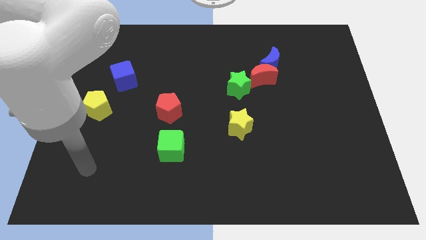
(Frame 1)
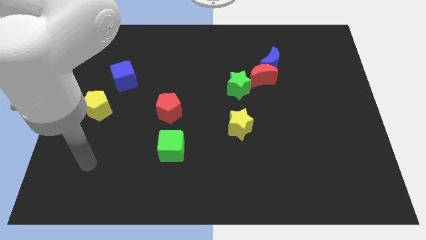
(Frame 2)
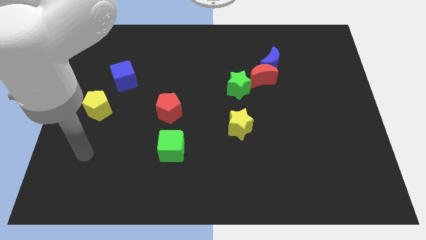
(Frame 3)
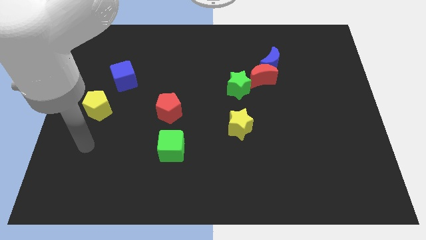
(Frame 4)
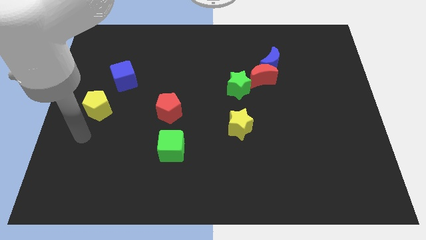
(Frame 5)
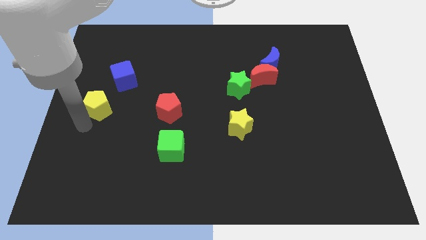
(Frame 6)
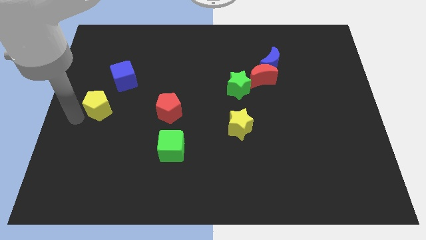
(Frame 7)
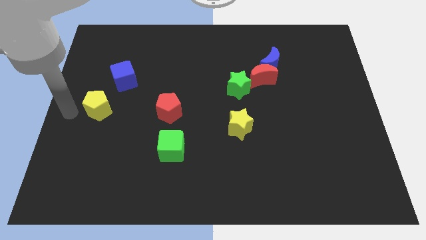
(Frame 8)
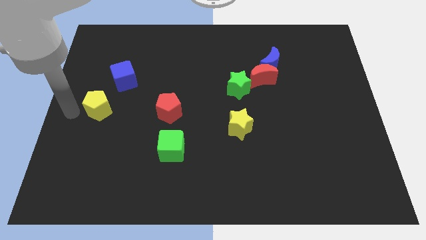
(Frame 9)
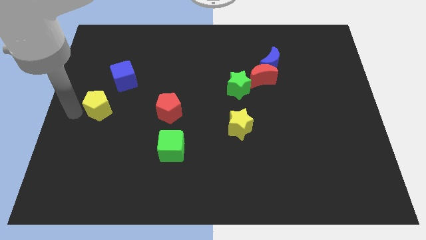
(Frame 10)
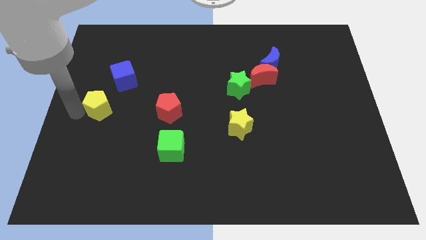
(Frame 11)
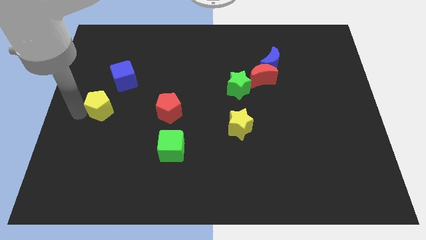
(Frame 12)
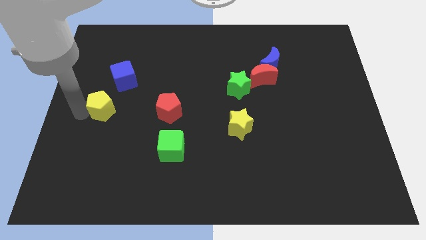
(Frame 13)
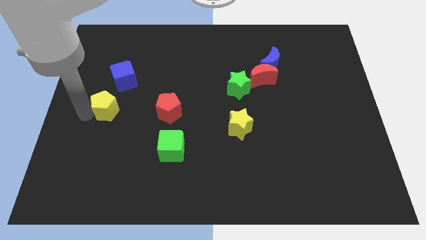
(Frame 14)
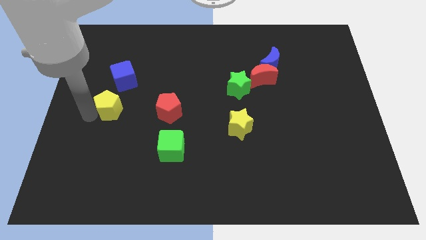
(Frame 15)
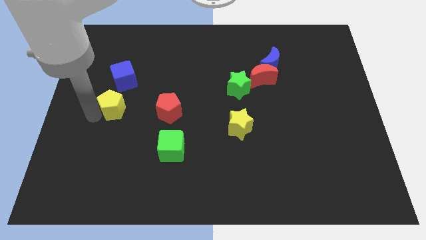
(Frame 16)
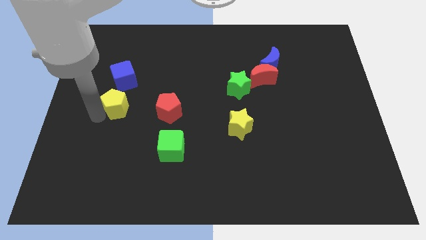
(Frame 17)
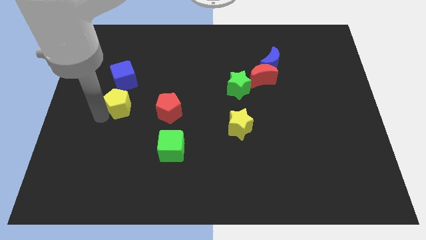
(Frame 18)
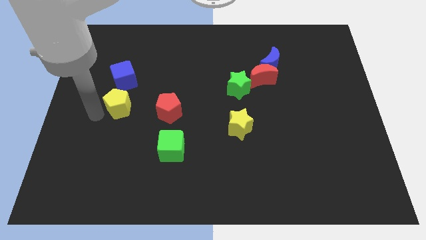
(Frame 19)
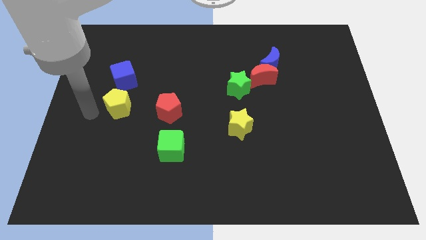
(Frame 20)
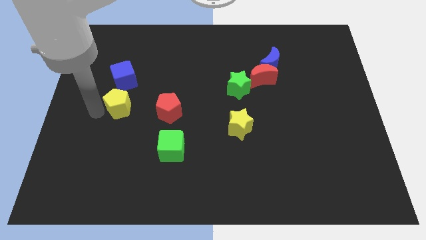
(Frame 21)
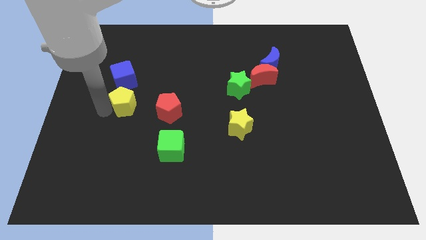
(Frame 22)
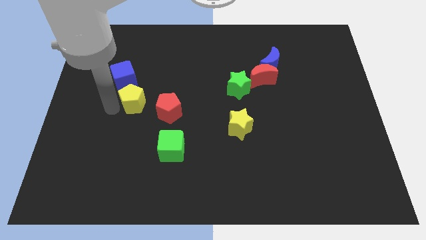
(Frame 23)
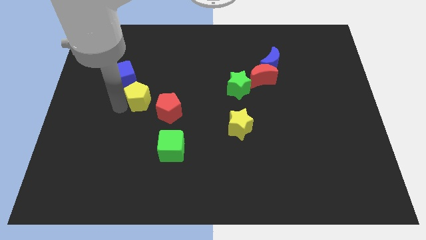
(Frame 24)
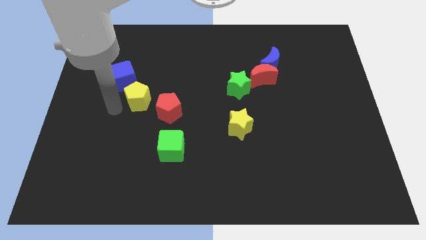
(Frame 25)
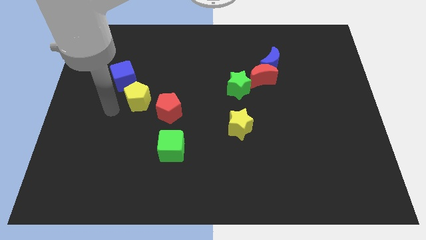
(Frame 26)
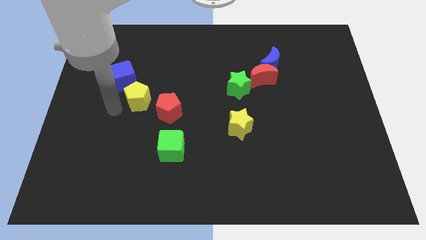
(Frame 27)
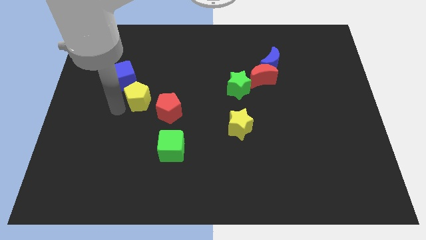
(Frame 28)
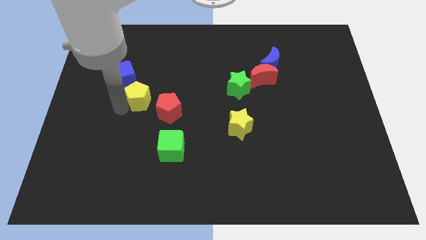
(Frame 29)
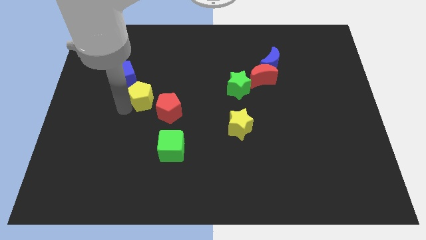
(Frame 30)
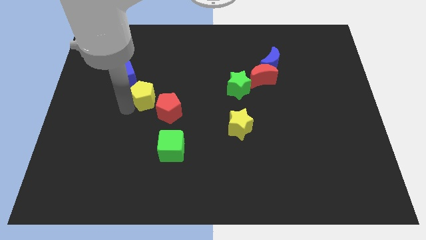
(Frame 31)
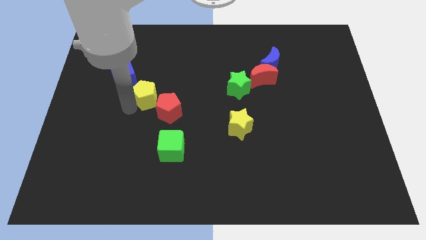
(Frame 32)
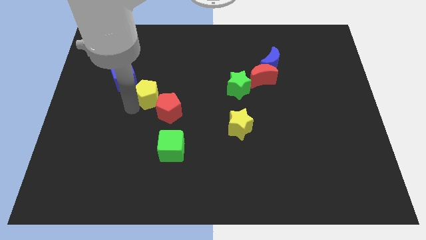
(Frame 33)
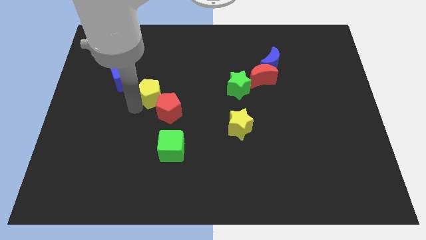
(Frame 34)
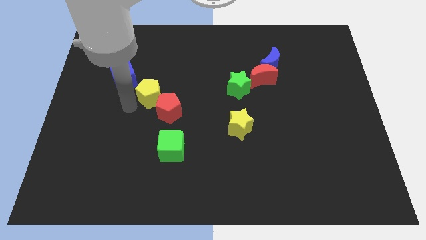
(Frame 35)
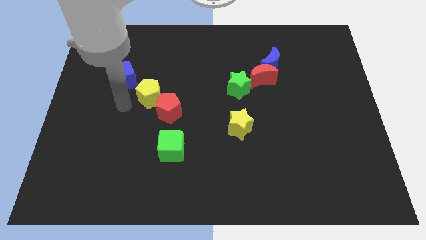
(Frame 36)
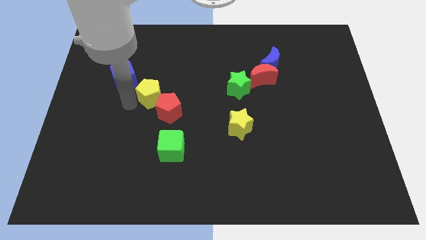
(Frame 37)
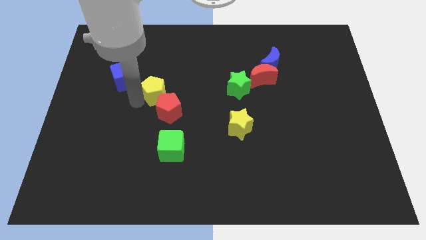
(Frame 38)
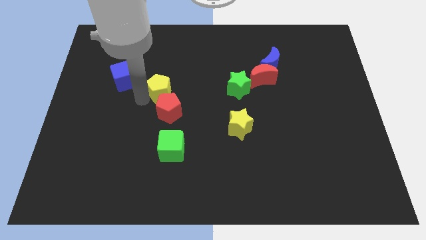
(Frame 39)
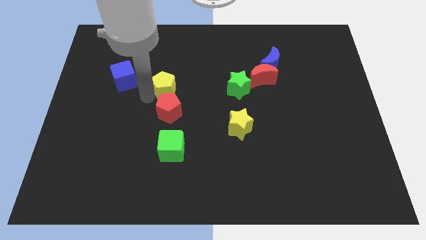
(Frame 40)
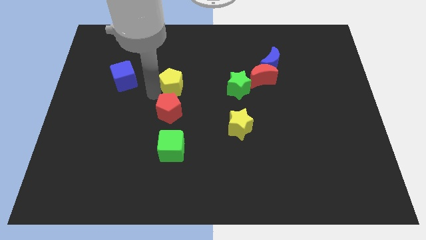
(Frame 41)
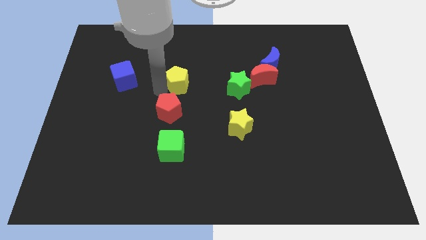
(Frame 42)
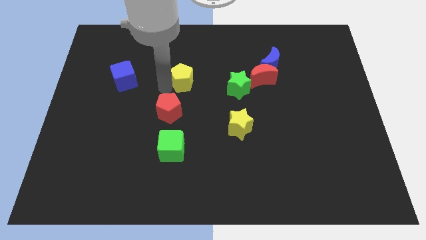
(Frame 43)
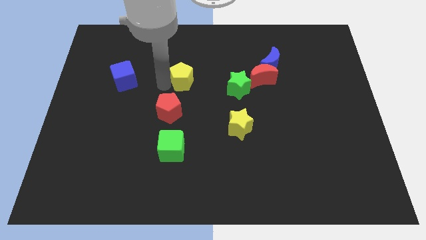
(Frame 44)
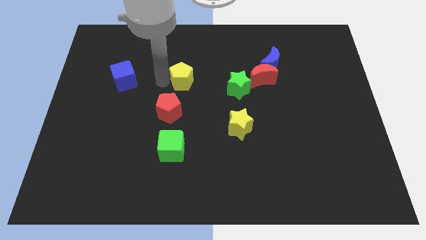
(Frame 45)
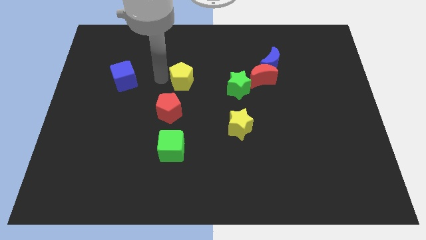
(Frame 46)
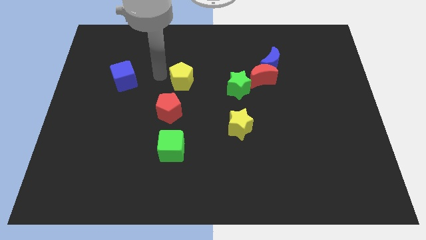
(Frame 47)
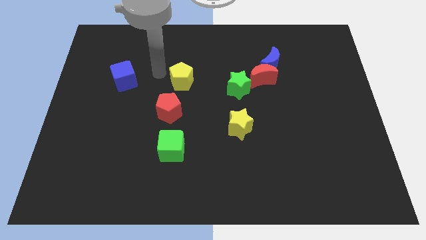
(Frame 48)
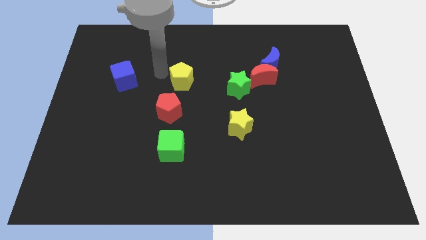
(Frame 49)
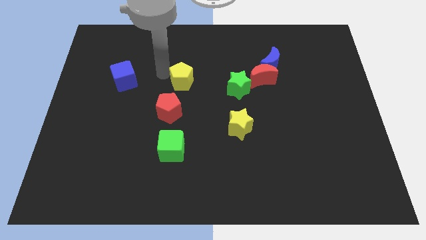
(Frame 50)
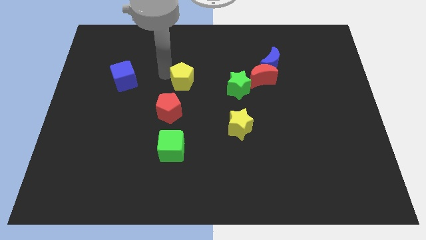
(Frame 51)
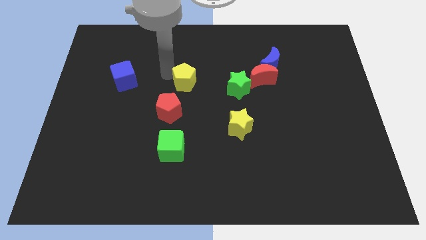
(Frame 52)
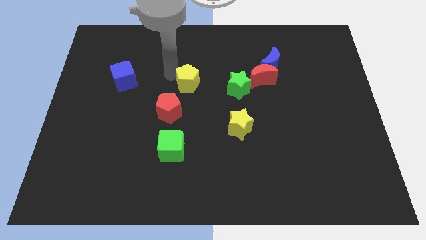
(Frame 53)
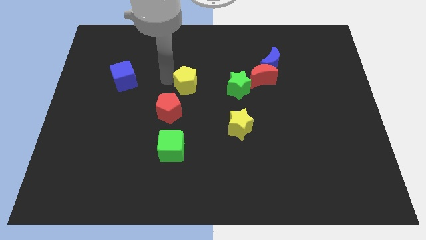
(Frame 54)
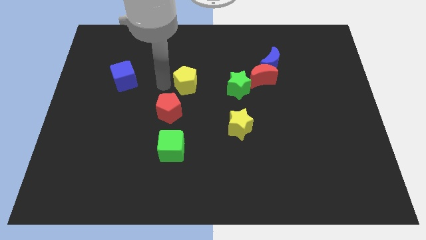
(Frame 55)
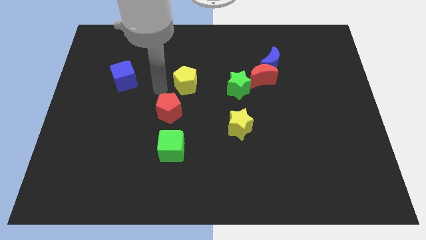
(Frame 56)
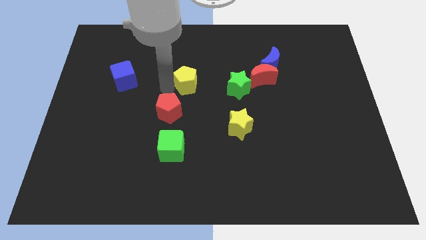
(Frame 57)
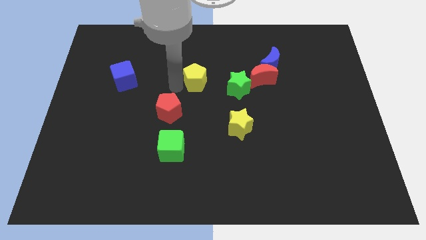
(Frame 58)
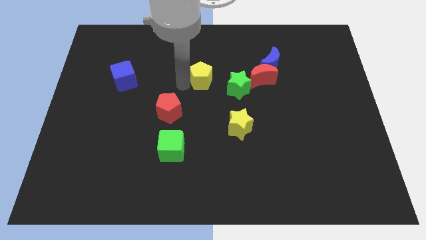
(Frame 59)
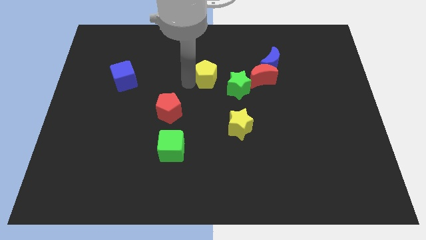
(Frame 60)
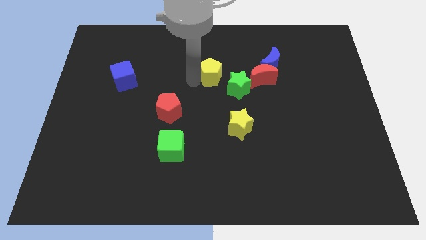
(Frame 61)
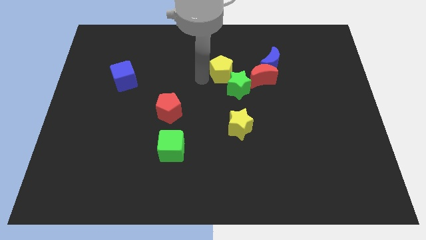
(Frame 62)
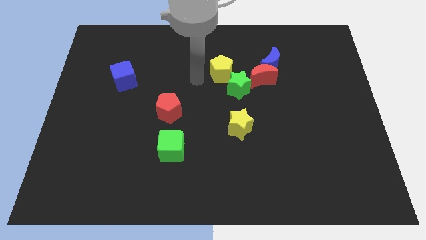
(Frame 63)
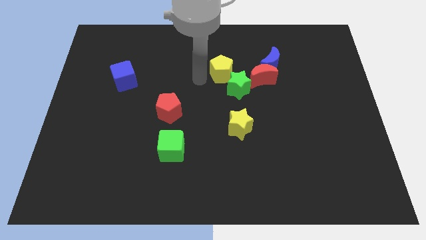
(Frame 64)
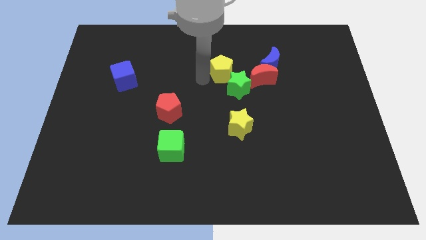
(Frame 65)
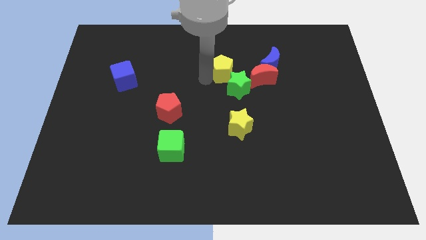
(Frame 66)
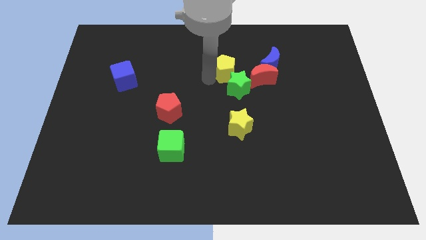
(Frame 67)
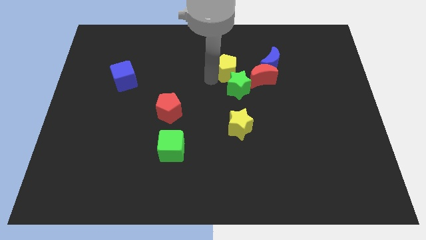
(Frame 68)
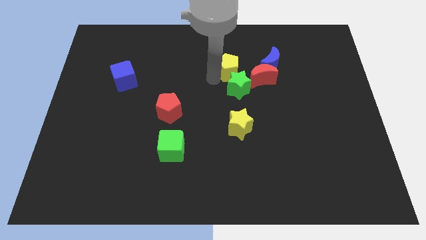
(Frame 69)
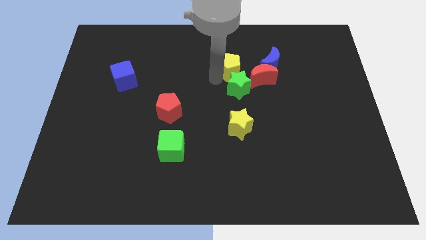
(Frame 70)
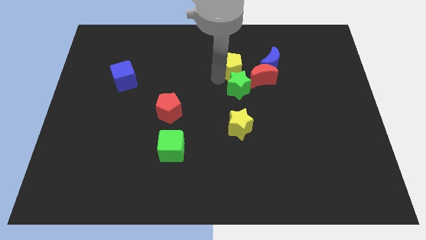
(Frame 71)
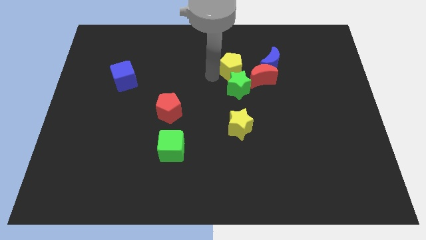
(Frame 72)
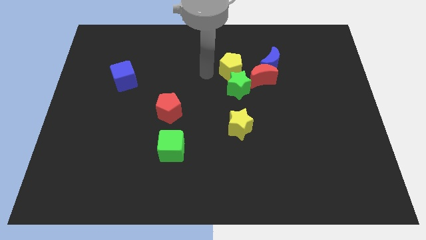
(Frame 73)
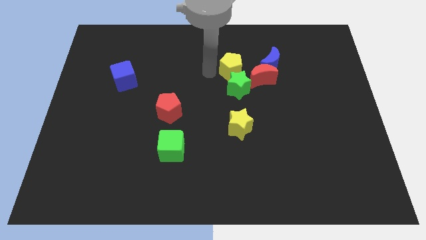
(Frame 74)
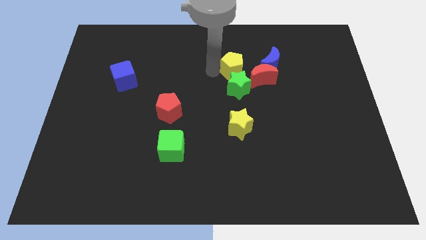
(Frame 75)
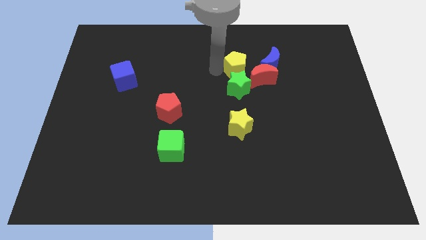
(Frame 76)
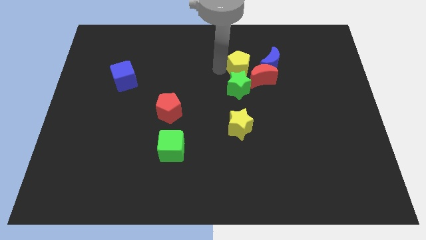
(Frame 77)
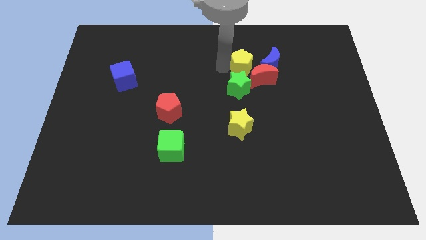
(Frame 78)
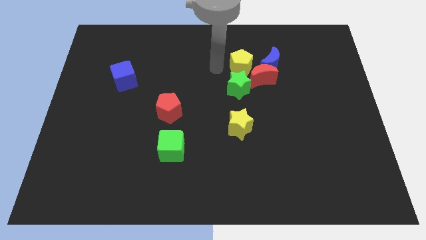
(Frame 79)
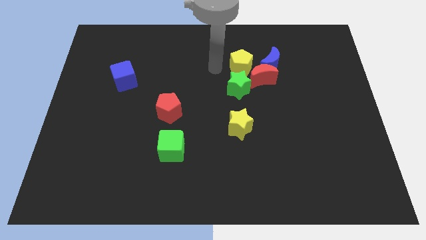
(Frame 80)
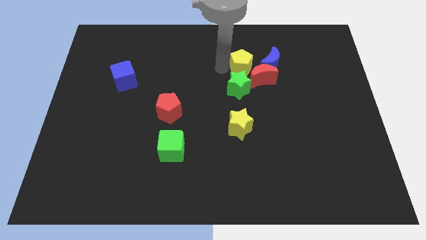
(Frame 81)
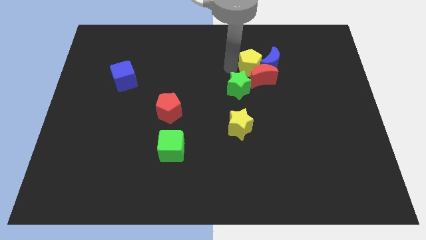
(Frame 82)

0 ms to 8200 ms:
push the yellow pentagon next to the blue moon
